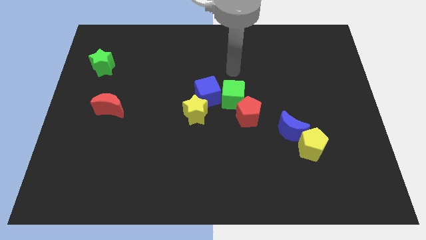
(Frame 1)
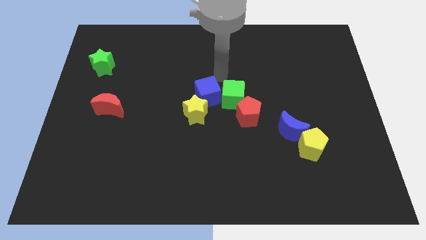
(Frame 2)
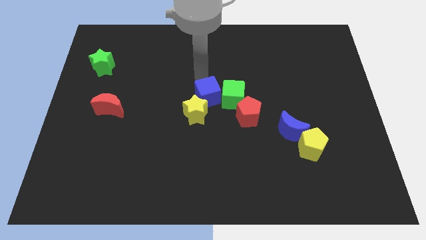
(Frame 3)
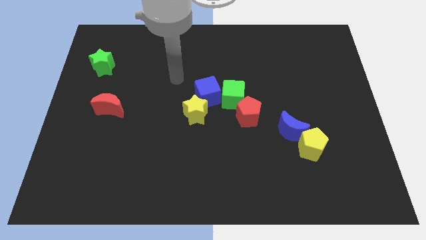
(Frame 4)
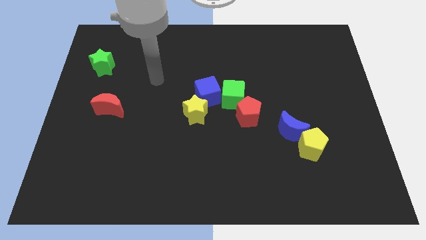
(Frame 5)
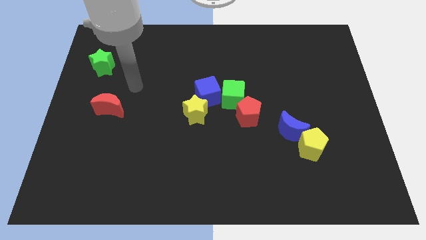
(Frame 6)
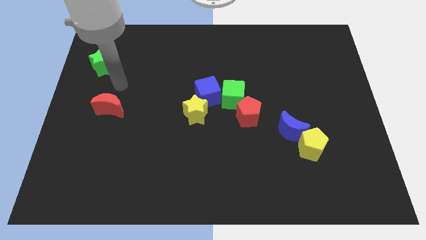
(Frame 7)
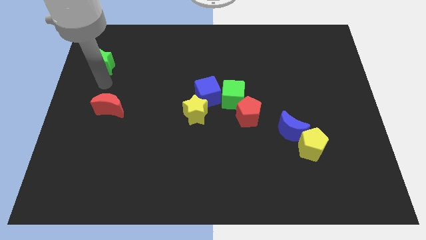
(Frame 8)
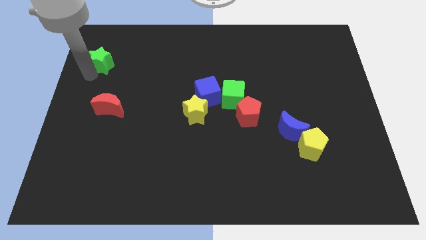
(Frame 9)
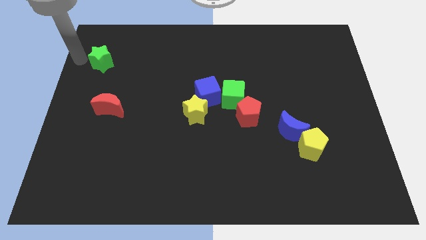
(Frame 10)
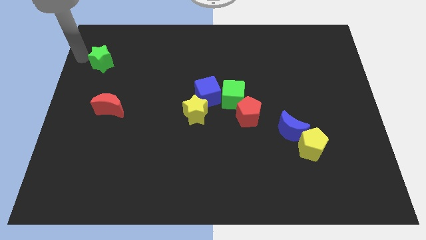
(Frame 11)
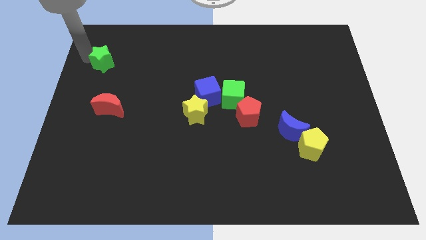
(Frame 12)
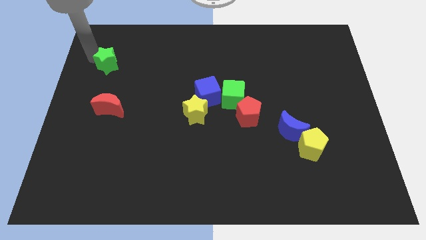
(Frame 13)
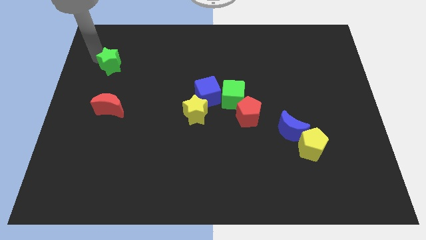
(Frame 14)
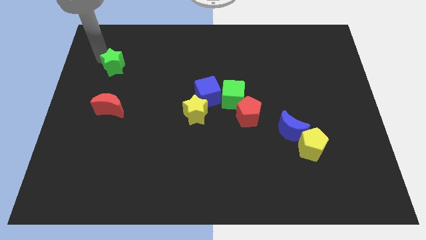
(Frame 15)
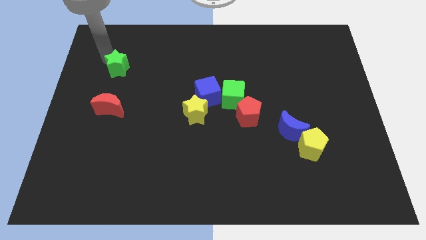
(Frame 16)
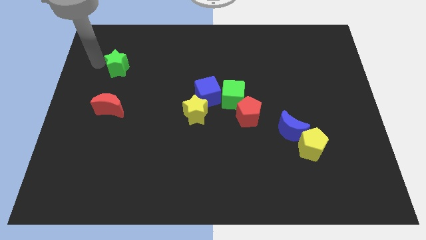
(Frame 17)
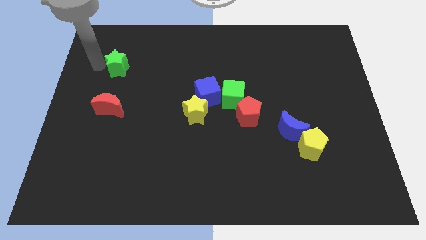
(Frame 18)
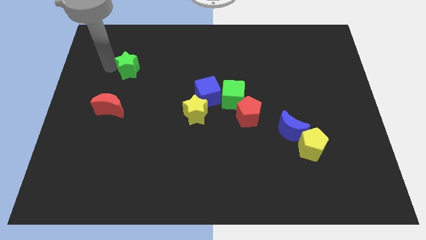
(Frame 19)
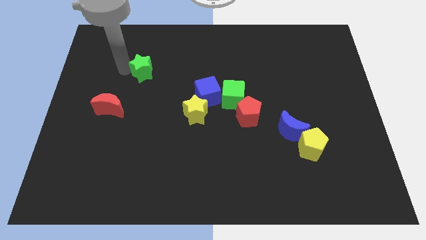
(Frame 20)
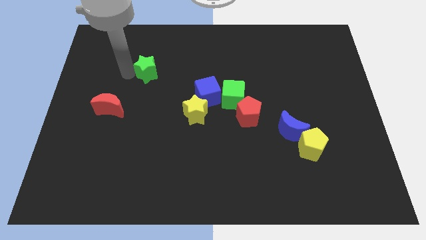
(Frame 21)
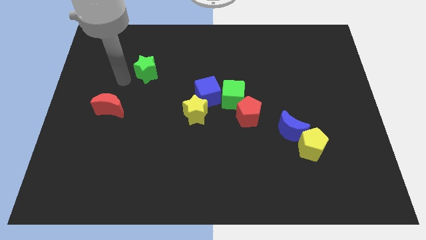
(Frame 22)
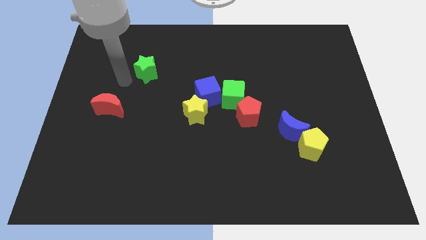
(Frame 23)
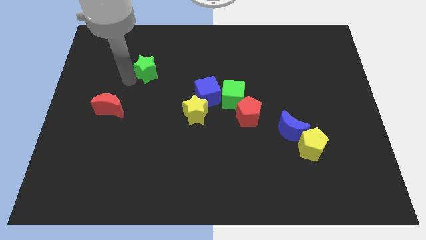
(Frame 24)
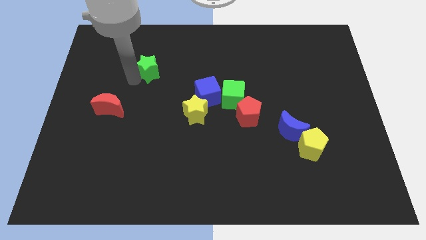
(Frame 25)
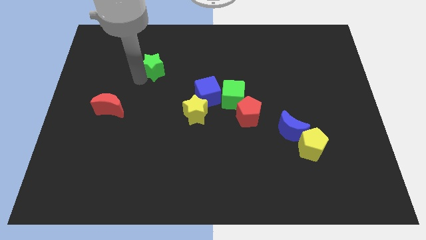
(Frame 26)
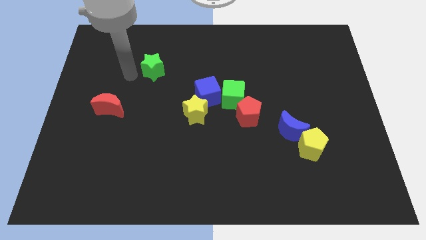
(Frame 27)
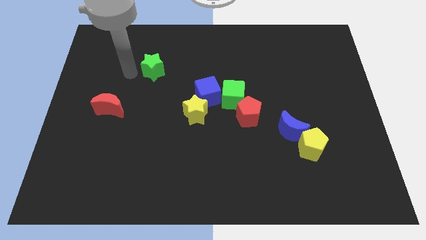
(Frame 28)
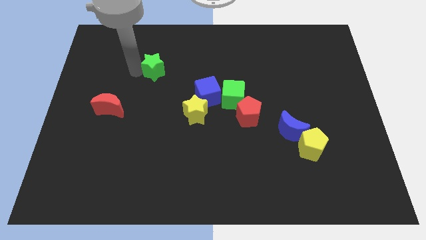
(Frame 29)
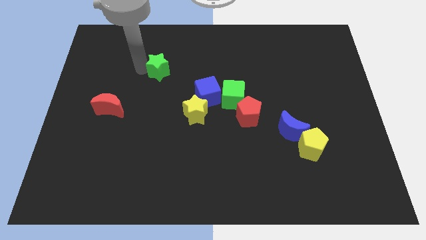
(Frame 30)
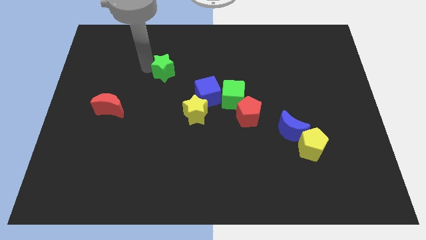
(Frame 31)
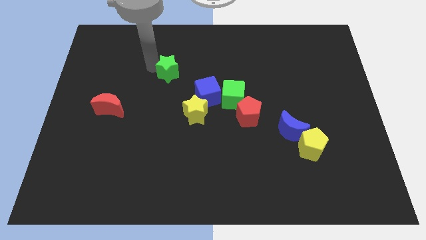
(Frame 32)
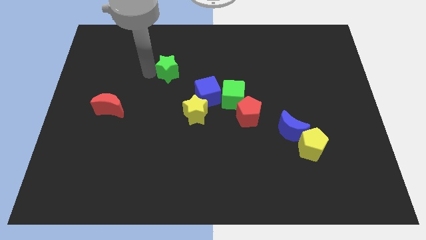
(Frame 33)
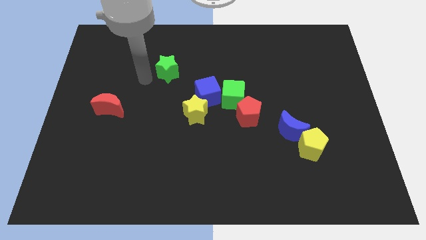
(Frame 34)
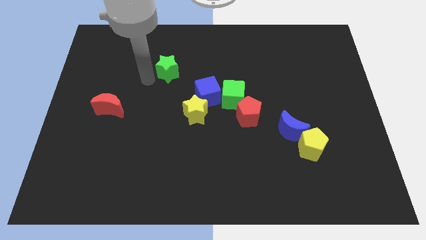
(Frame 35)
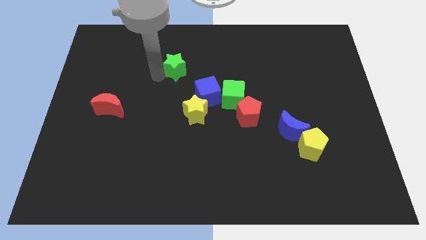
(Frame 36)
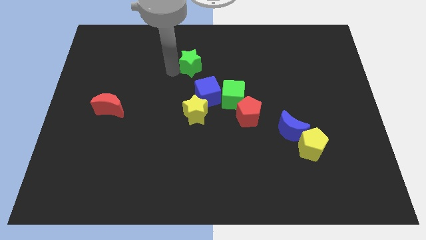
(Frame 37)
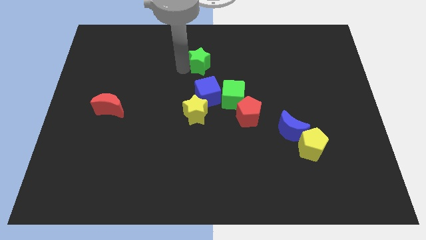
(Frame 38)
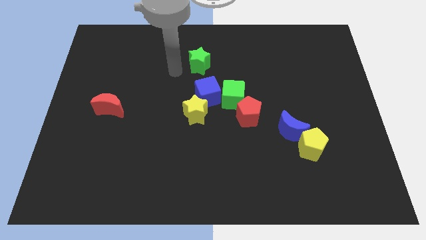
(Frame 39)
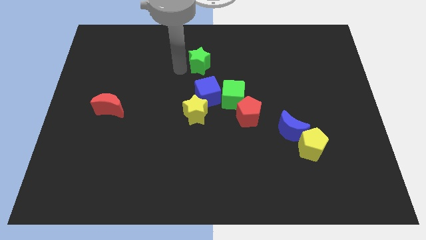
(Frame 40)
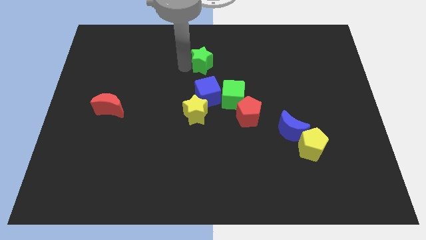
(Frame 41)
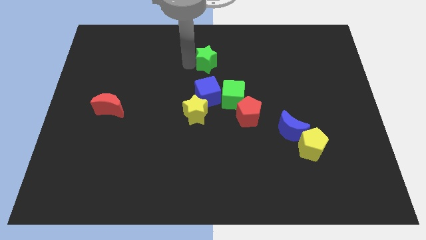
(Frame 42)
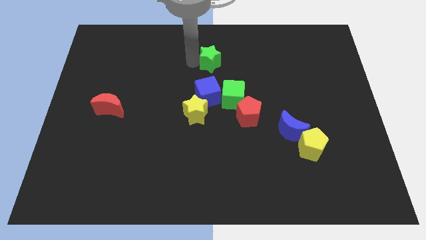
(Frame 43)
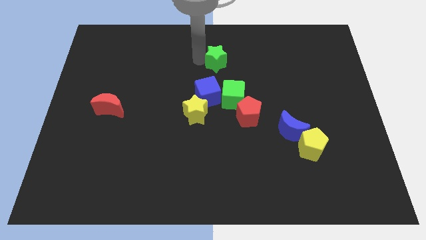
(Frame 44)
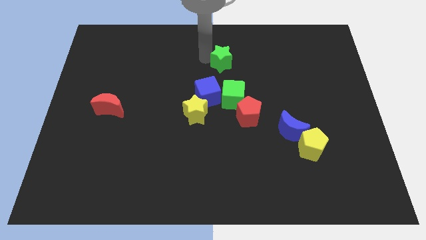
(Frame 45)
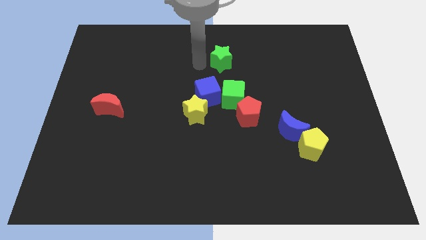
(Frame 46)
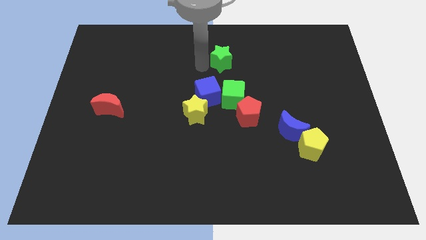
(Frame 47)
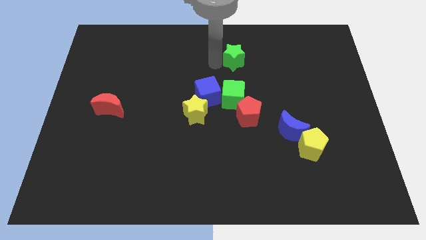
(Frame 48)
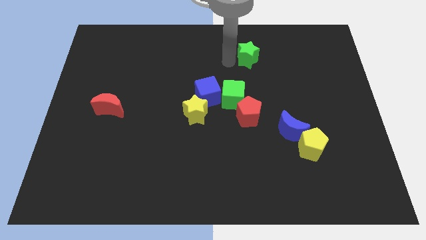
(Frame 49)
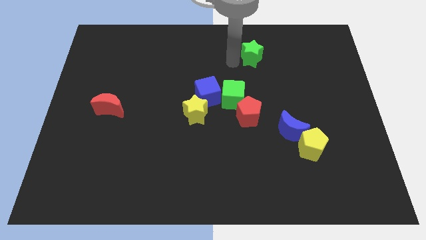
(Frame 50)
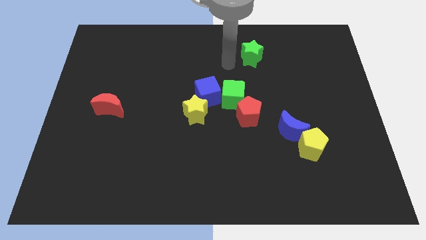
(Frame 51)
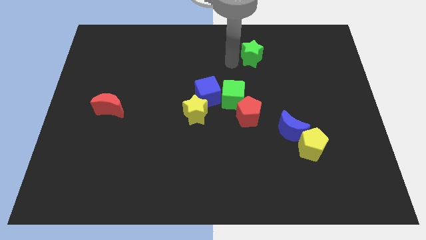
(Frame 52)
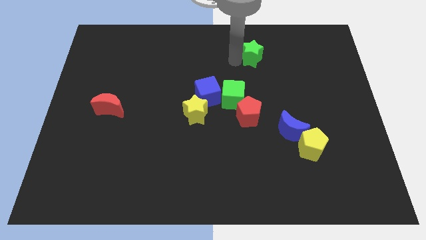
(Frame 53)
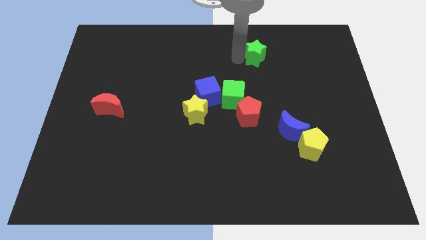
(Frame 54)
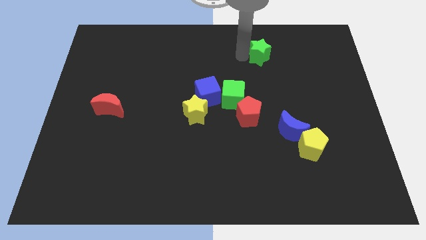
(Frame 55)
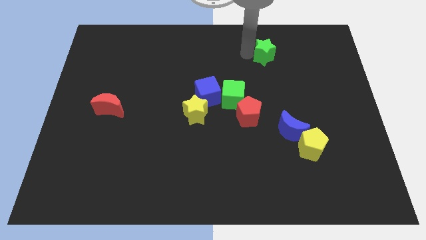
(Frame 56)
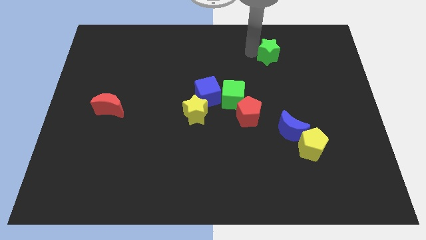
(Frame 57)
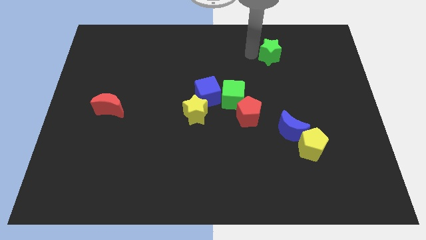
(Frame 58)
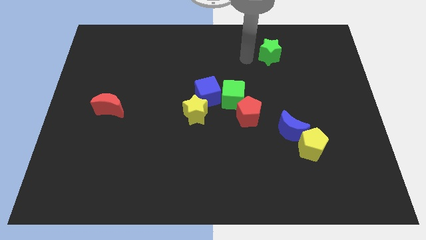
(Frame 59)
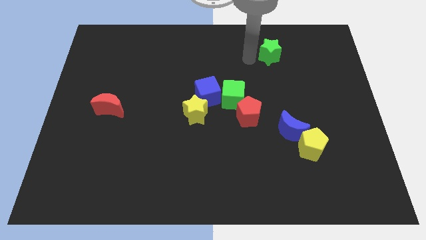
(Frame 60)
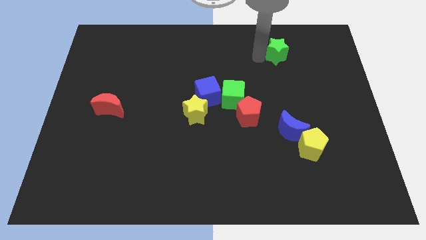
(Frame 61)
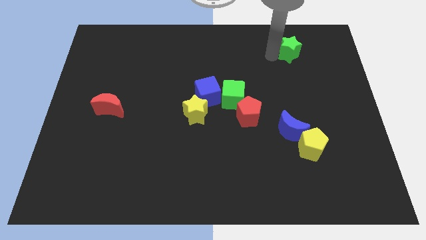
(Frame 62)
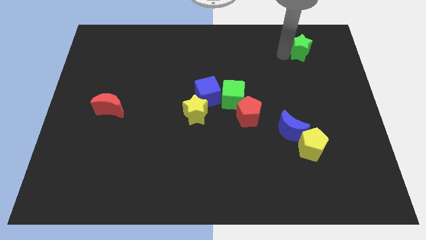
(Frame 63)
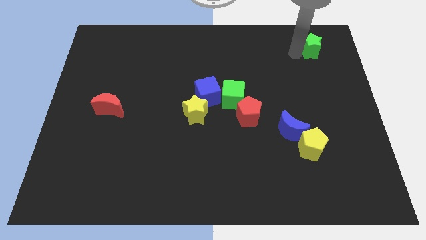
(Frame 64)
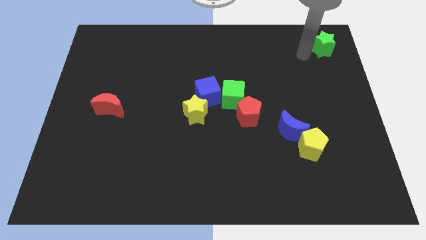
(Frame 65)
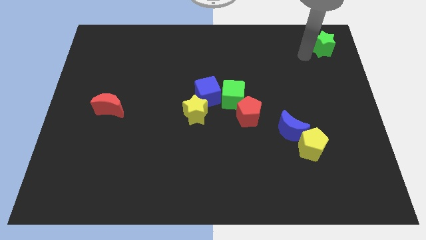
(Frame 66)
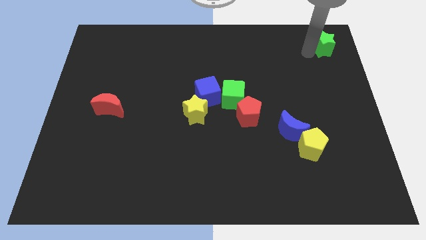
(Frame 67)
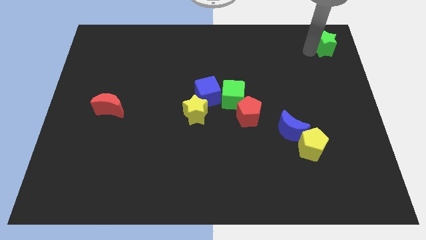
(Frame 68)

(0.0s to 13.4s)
slide the green star to the top right corner
